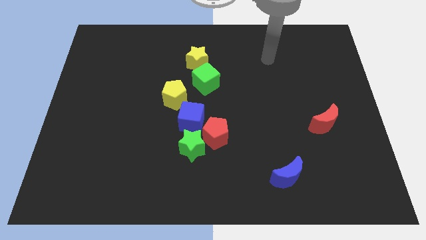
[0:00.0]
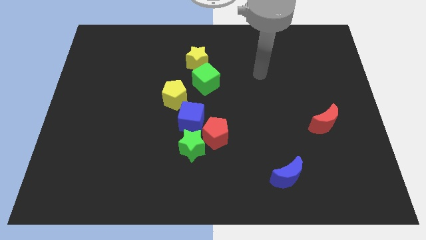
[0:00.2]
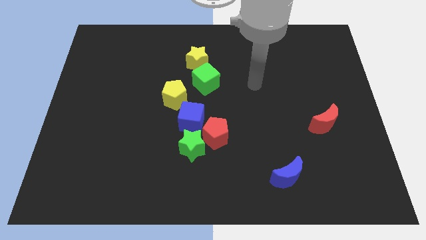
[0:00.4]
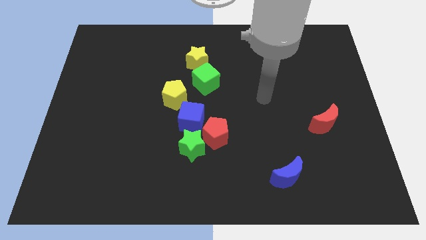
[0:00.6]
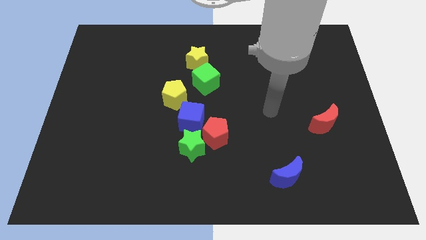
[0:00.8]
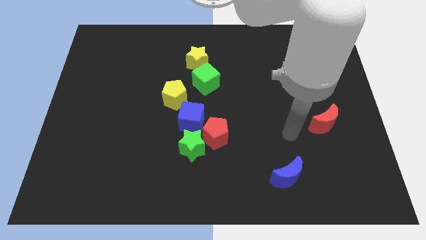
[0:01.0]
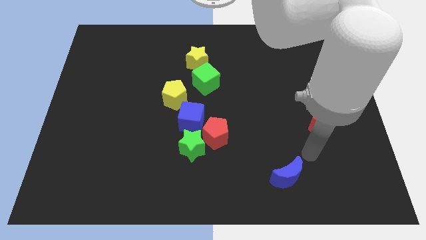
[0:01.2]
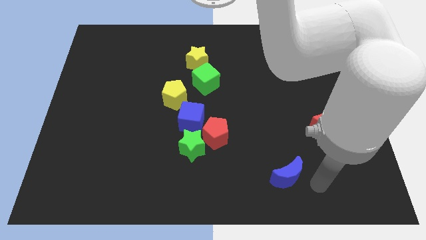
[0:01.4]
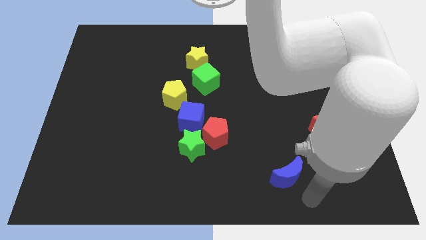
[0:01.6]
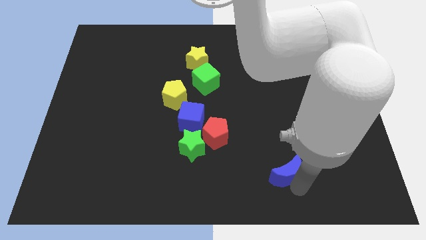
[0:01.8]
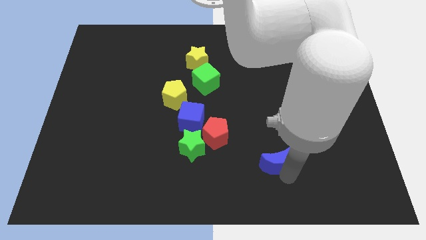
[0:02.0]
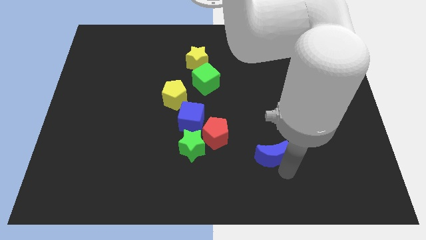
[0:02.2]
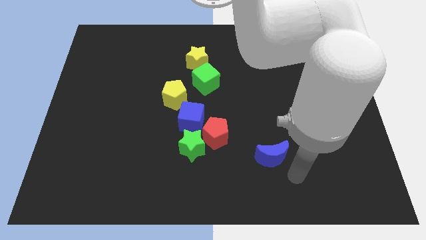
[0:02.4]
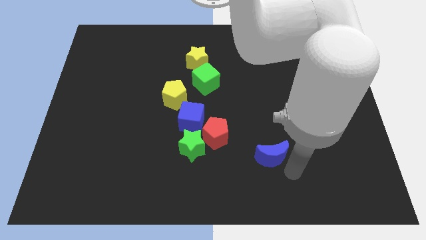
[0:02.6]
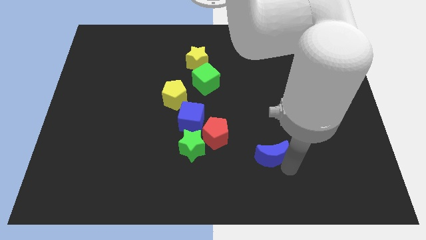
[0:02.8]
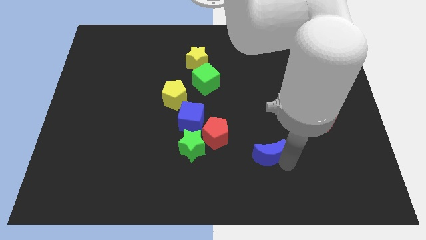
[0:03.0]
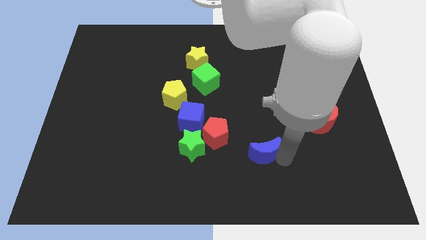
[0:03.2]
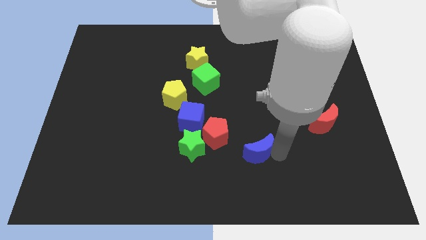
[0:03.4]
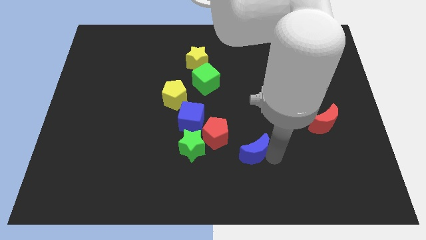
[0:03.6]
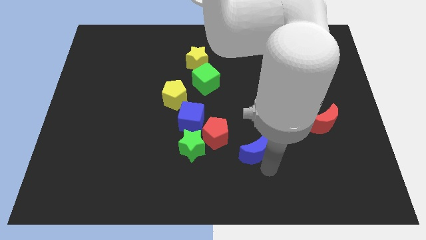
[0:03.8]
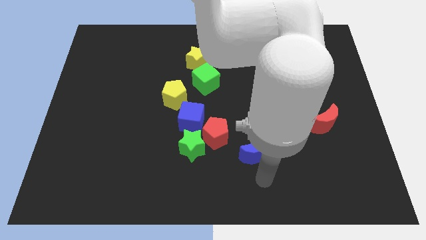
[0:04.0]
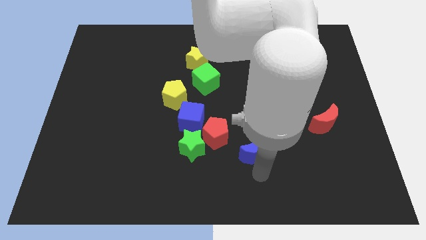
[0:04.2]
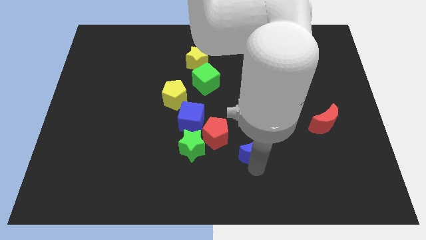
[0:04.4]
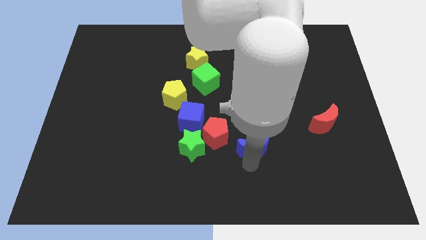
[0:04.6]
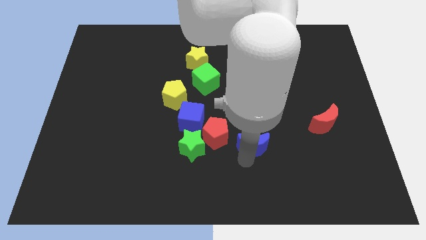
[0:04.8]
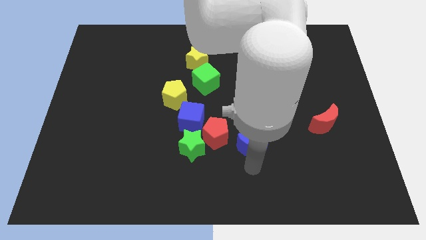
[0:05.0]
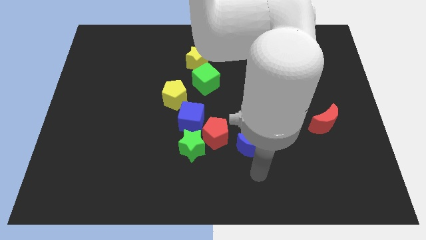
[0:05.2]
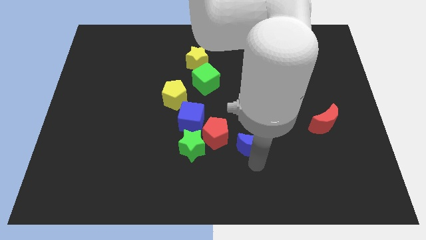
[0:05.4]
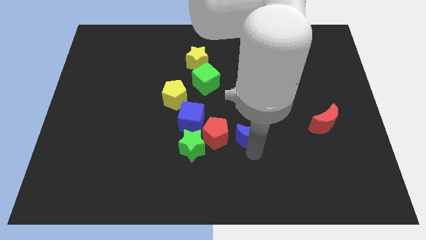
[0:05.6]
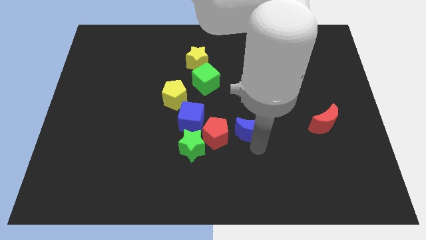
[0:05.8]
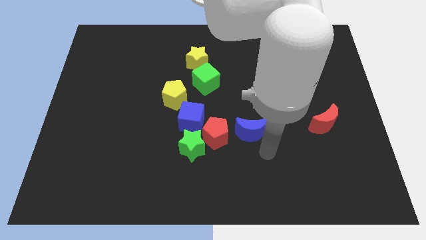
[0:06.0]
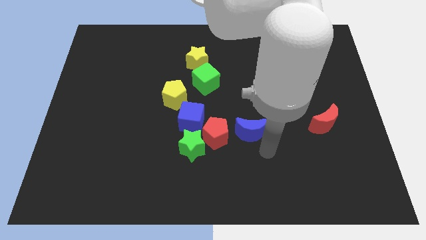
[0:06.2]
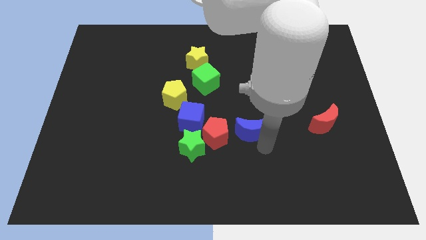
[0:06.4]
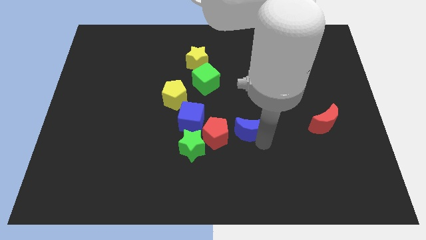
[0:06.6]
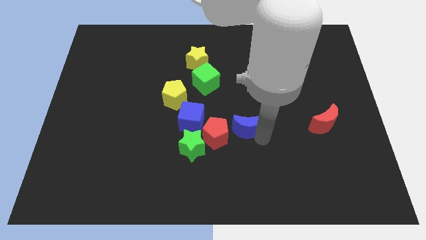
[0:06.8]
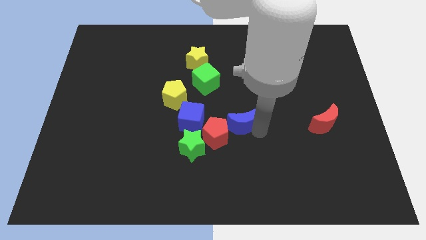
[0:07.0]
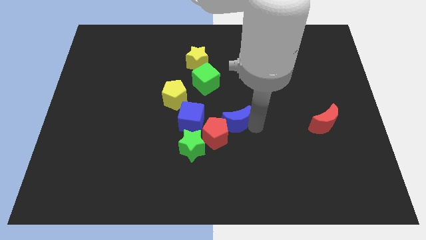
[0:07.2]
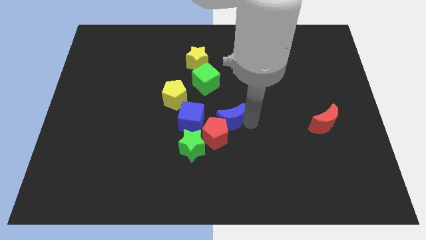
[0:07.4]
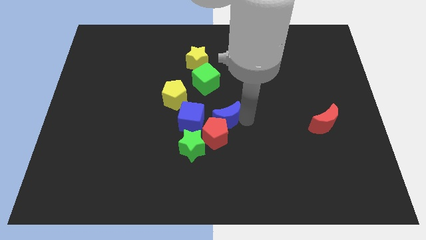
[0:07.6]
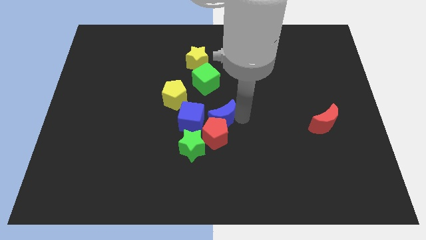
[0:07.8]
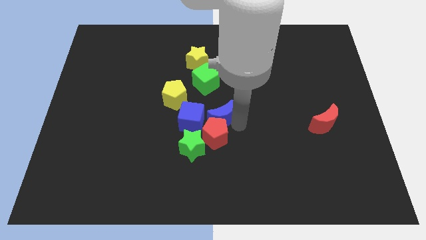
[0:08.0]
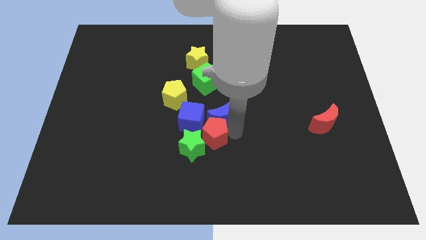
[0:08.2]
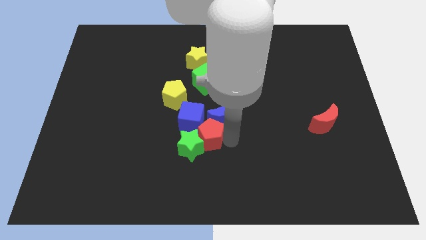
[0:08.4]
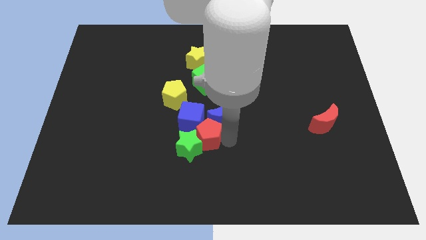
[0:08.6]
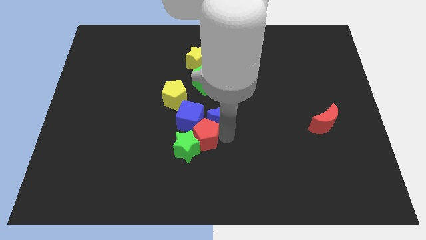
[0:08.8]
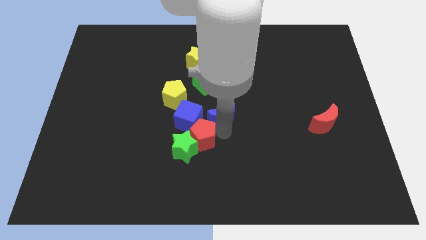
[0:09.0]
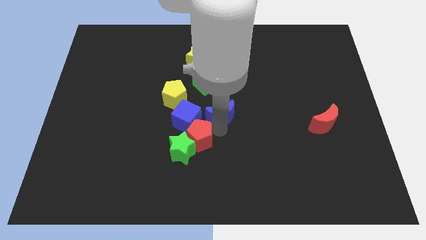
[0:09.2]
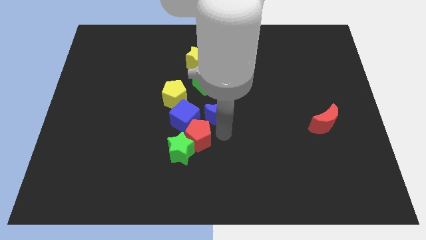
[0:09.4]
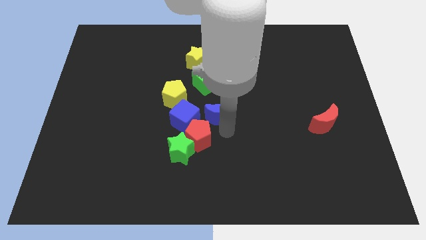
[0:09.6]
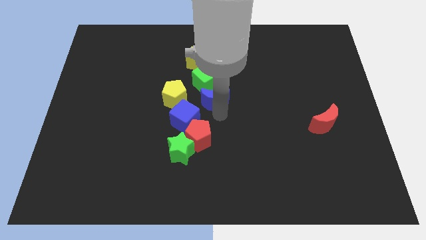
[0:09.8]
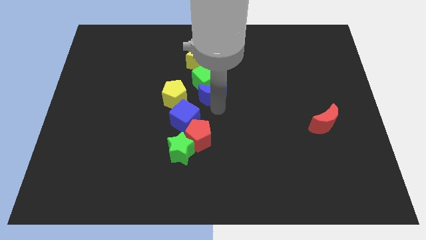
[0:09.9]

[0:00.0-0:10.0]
slide the blue moon to the green cube
